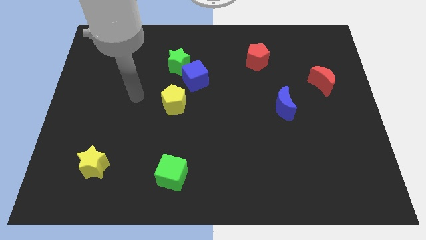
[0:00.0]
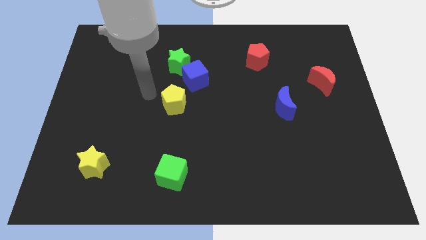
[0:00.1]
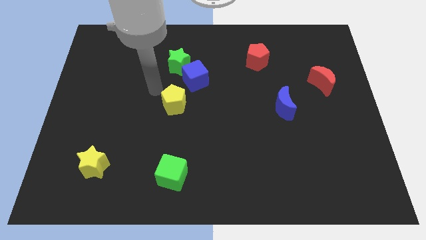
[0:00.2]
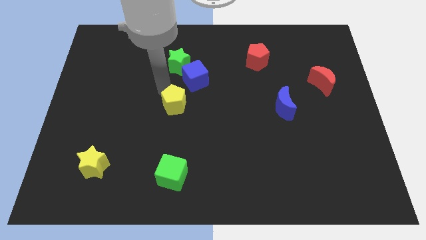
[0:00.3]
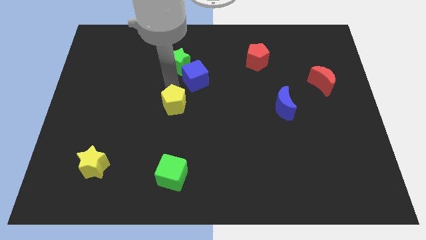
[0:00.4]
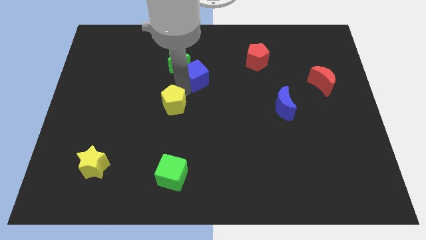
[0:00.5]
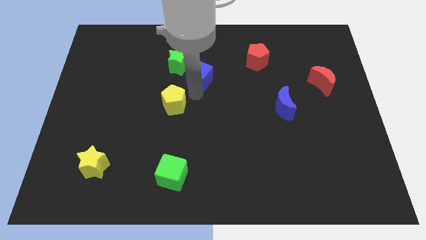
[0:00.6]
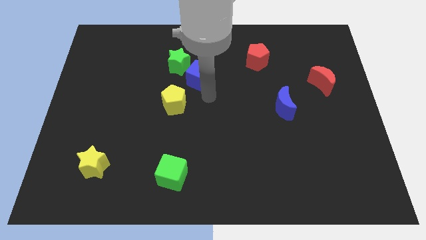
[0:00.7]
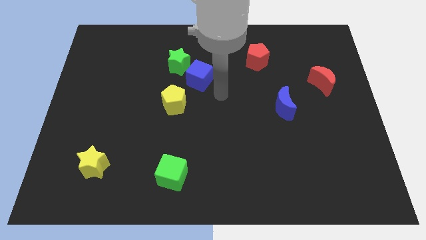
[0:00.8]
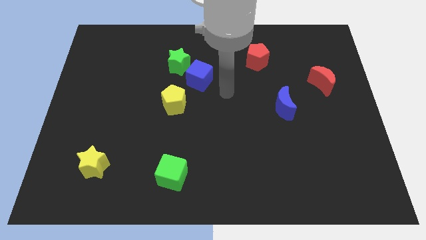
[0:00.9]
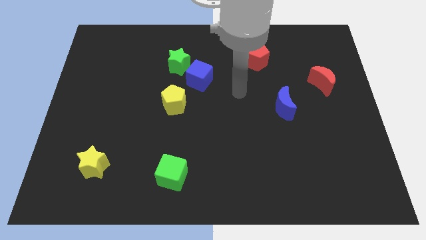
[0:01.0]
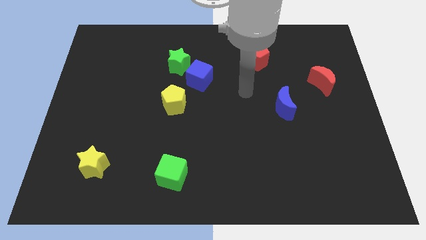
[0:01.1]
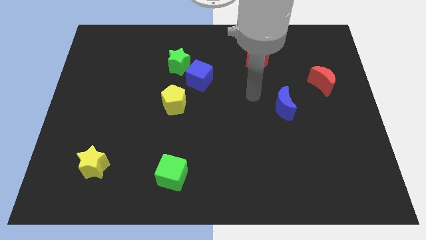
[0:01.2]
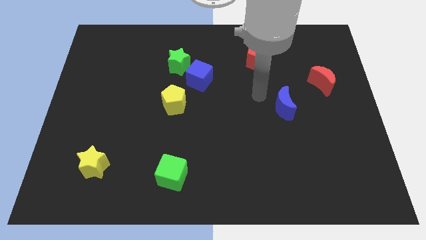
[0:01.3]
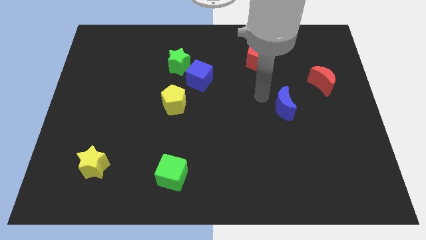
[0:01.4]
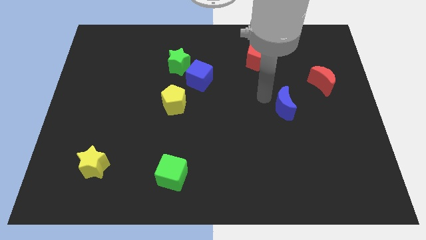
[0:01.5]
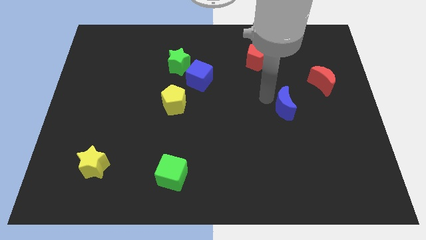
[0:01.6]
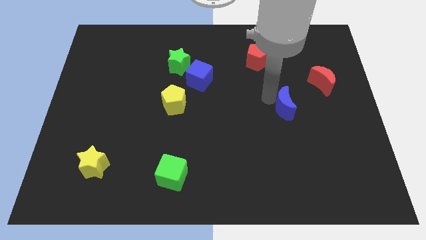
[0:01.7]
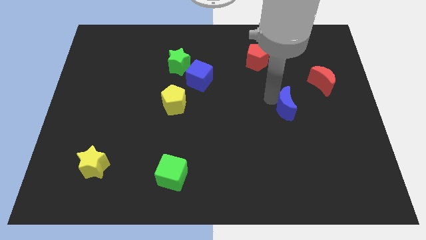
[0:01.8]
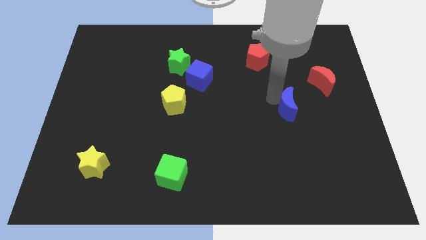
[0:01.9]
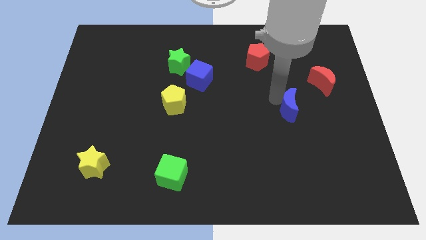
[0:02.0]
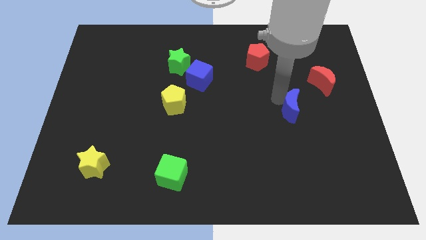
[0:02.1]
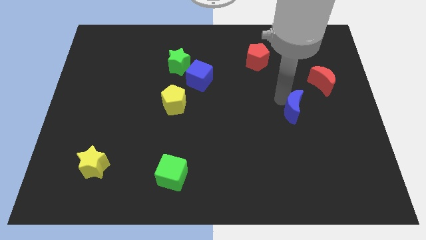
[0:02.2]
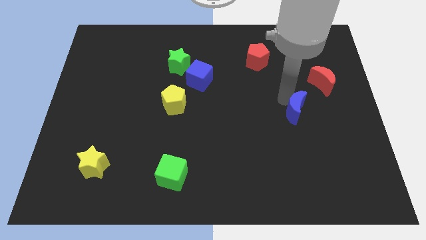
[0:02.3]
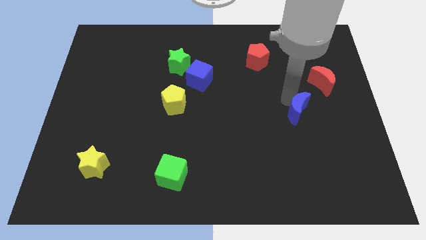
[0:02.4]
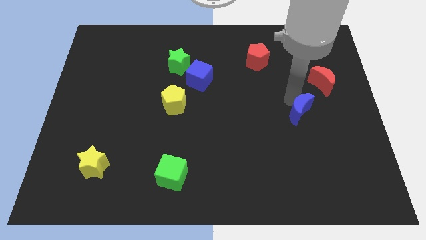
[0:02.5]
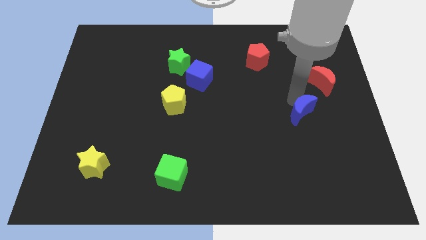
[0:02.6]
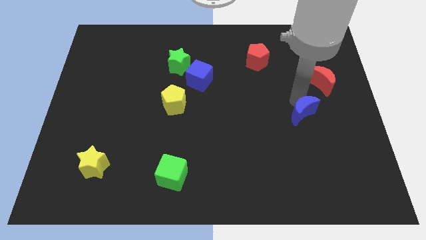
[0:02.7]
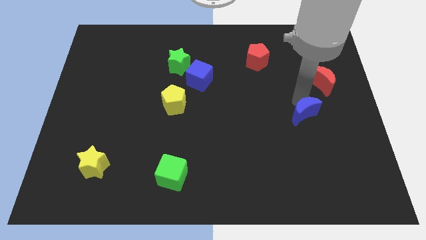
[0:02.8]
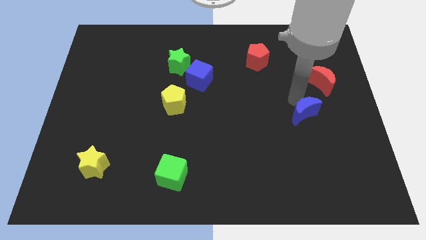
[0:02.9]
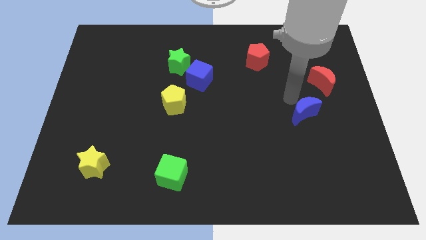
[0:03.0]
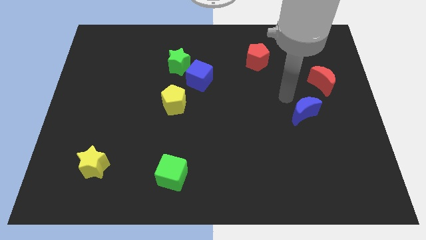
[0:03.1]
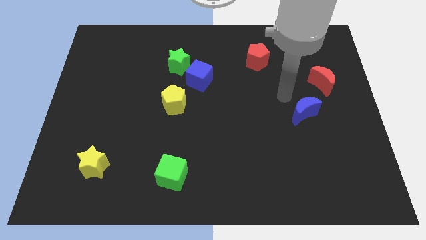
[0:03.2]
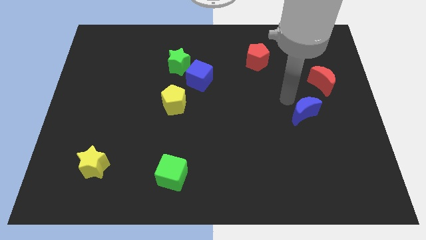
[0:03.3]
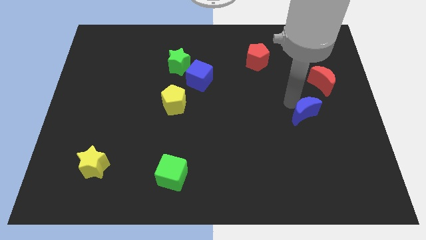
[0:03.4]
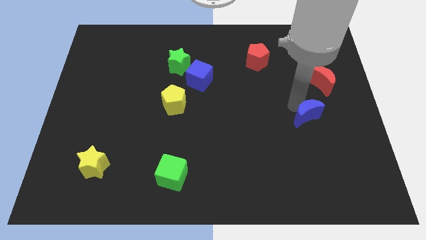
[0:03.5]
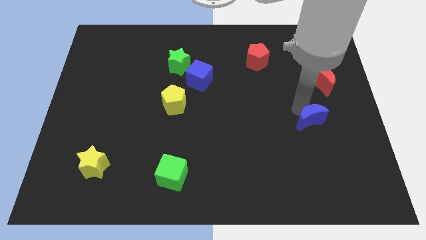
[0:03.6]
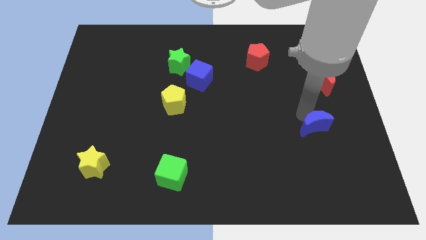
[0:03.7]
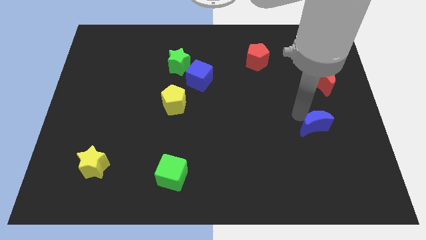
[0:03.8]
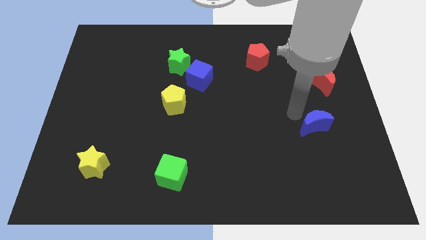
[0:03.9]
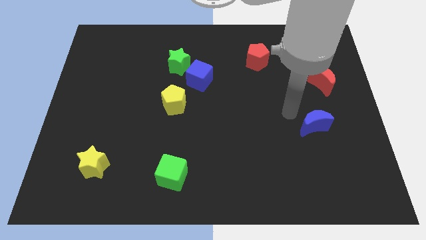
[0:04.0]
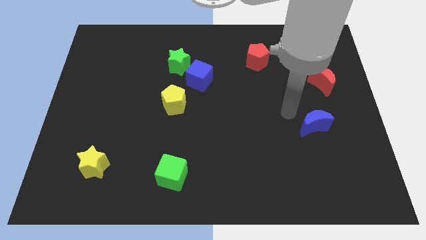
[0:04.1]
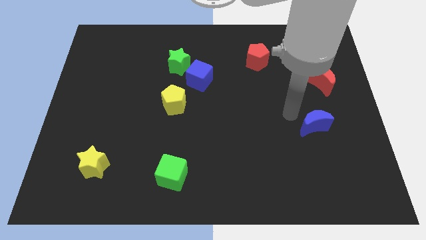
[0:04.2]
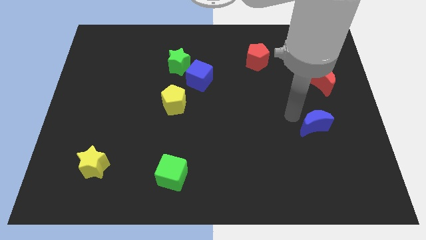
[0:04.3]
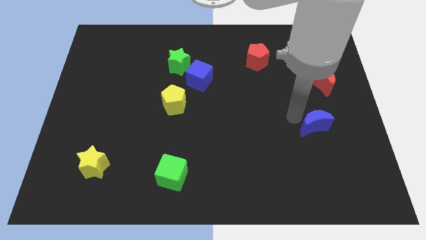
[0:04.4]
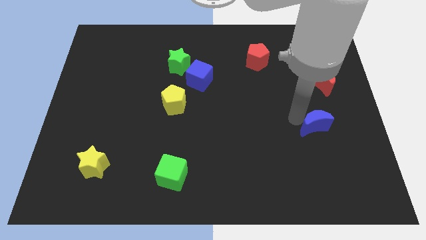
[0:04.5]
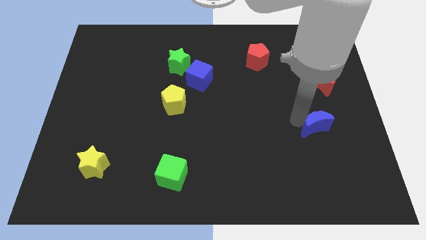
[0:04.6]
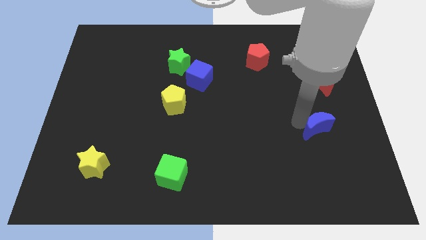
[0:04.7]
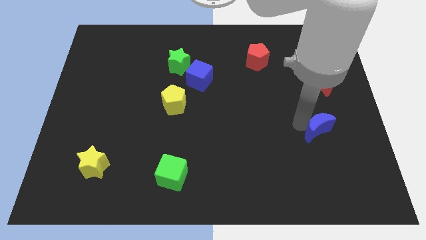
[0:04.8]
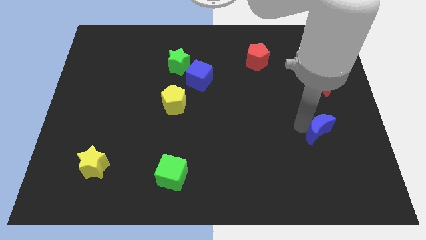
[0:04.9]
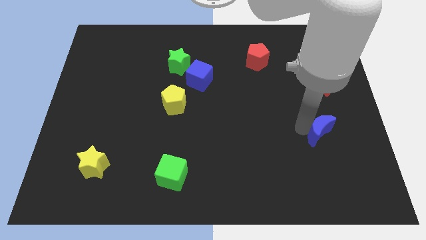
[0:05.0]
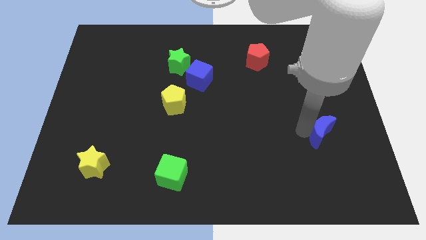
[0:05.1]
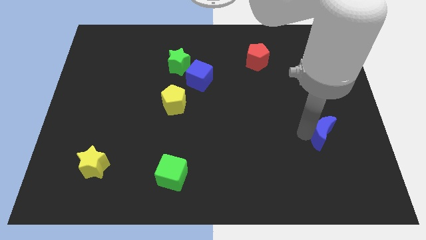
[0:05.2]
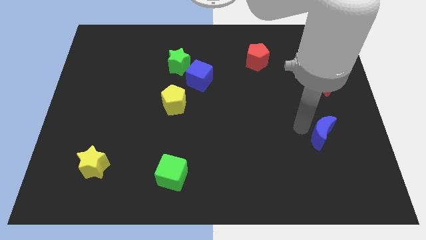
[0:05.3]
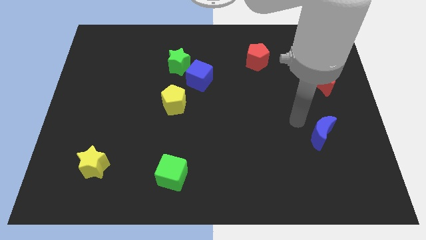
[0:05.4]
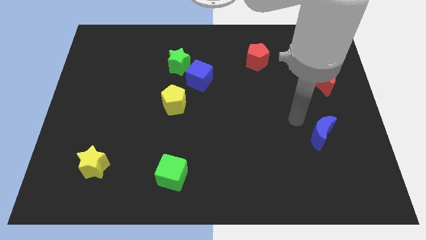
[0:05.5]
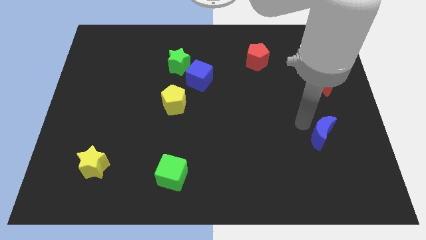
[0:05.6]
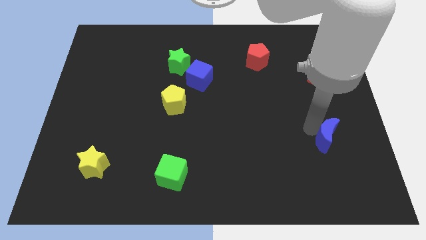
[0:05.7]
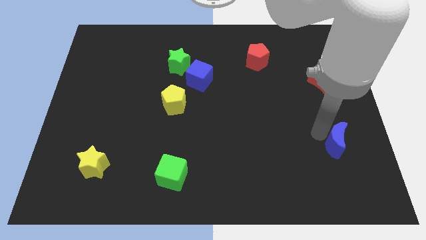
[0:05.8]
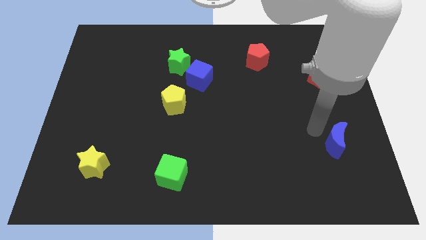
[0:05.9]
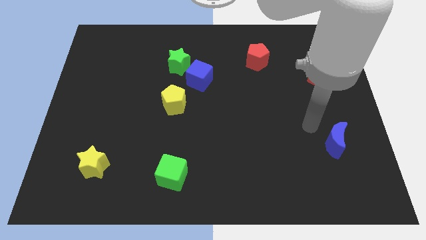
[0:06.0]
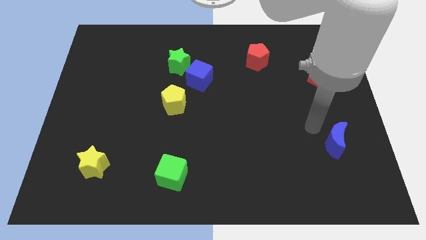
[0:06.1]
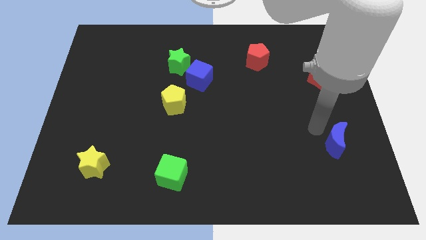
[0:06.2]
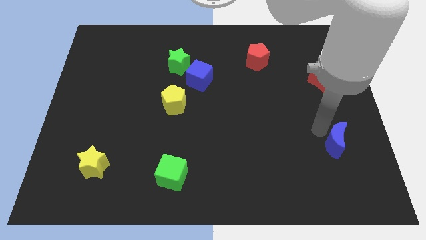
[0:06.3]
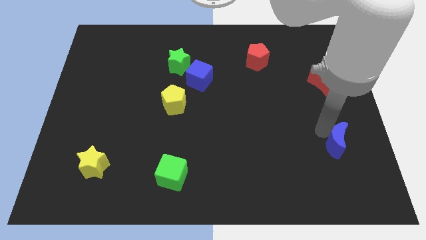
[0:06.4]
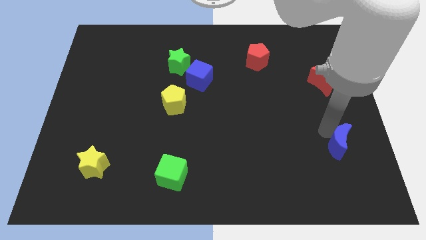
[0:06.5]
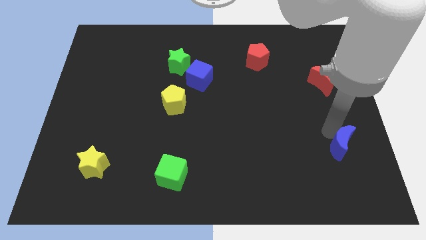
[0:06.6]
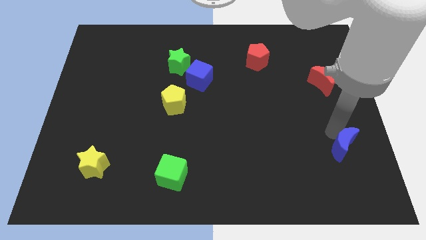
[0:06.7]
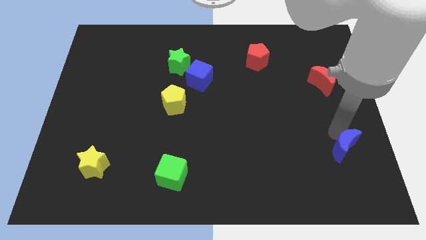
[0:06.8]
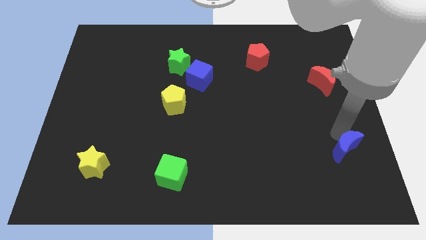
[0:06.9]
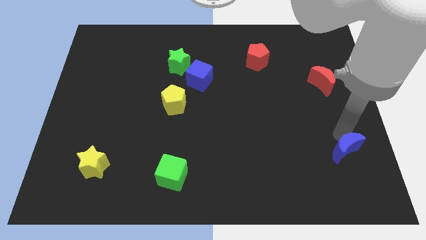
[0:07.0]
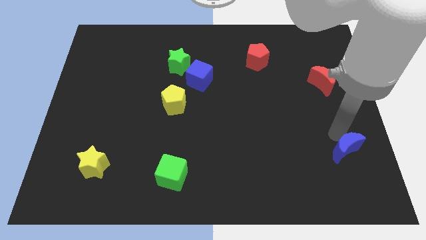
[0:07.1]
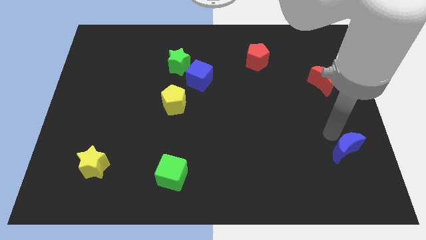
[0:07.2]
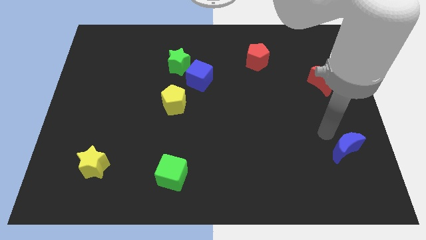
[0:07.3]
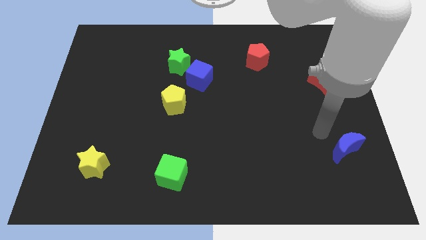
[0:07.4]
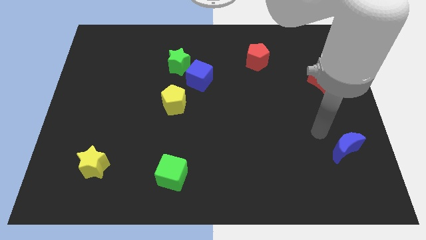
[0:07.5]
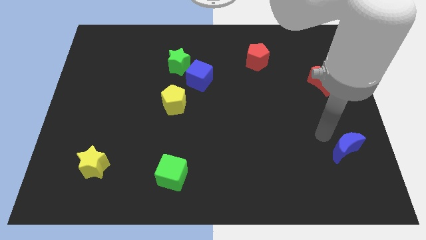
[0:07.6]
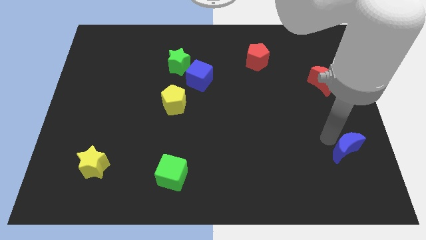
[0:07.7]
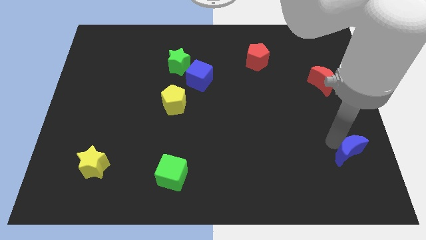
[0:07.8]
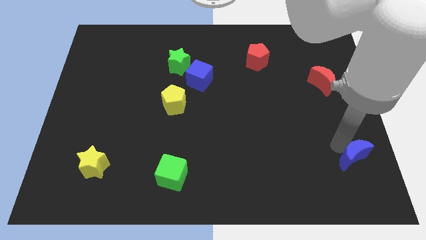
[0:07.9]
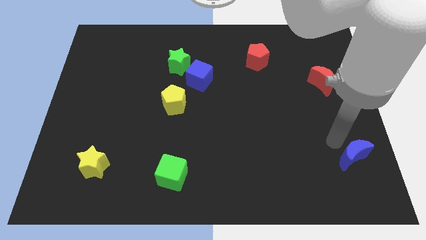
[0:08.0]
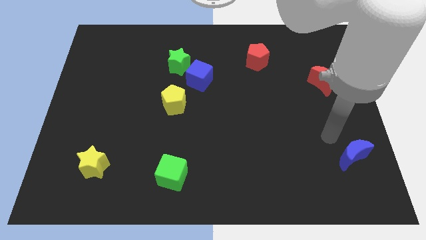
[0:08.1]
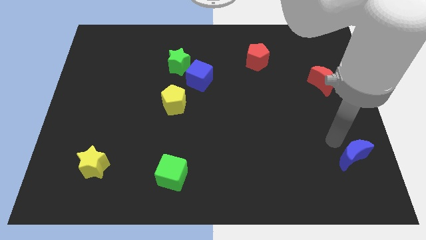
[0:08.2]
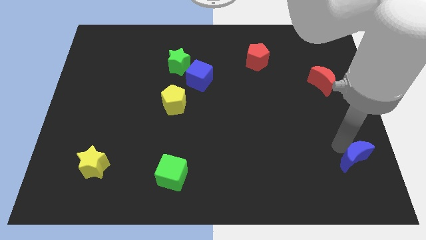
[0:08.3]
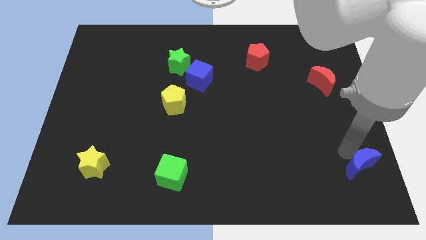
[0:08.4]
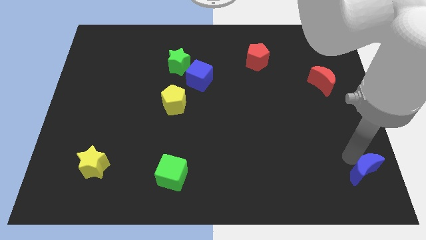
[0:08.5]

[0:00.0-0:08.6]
move the blue moon to the bottom right of the board
